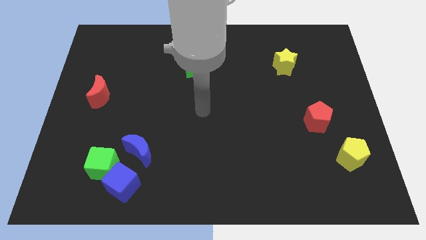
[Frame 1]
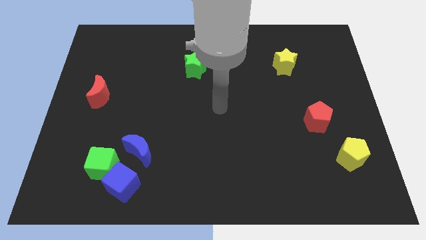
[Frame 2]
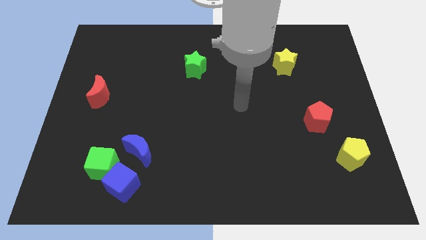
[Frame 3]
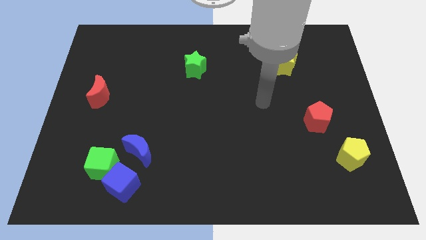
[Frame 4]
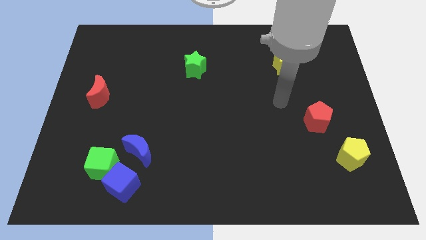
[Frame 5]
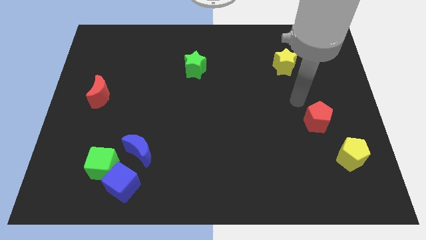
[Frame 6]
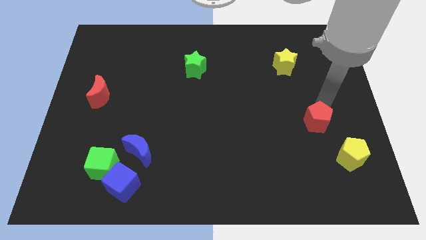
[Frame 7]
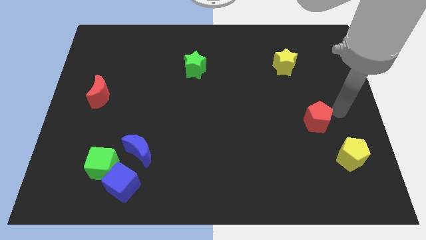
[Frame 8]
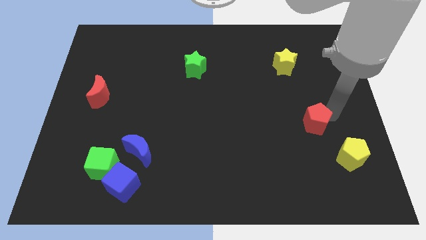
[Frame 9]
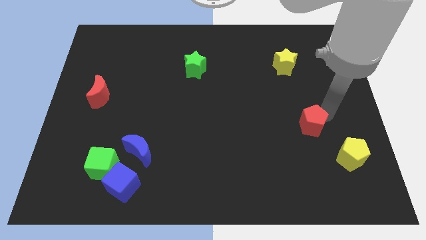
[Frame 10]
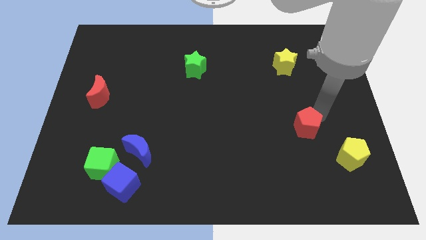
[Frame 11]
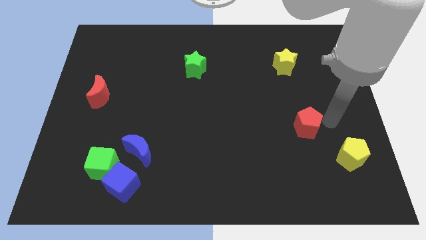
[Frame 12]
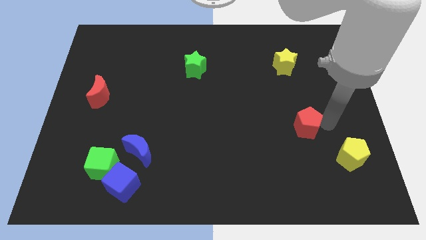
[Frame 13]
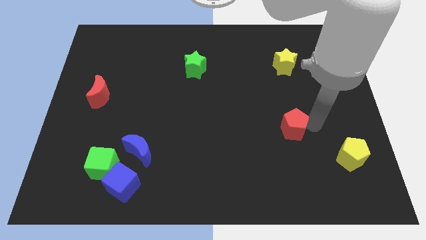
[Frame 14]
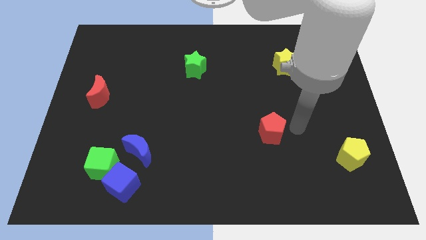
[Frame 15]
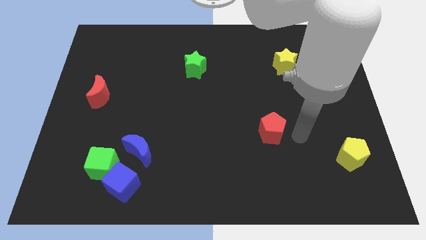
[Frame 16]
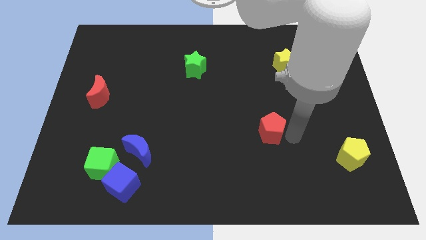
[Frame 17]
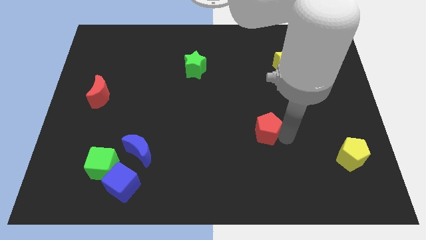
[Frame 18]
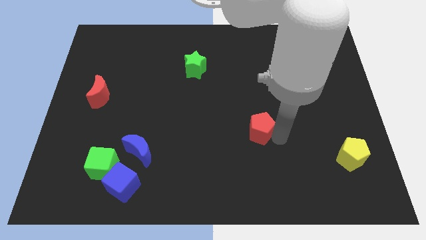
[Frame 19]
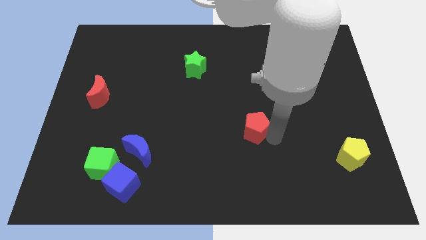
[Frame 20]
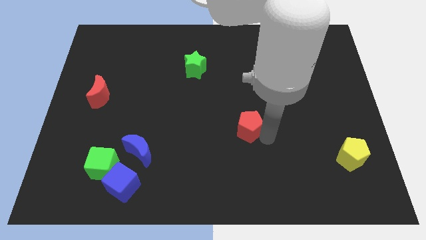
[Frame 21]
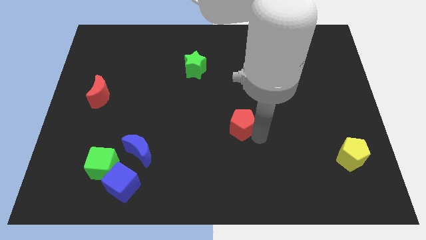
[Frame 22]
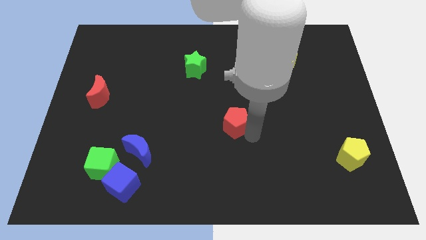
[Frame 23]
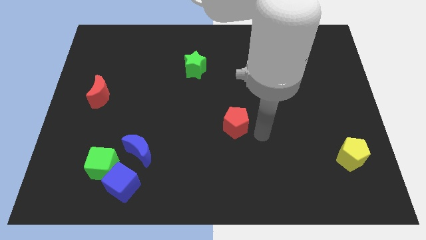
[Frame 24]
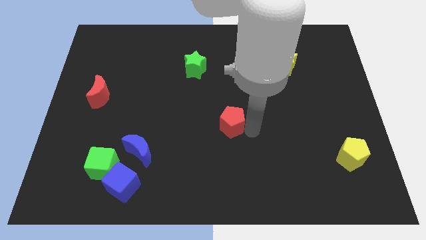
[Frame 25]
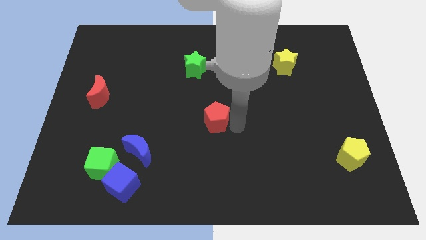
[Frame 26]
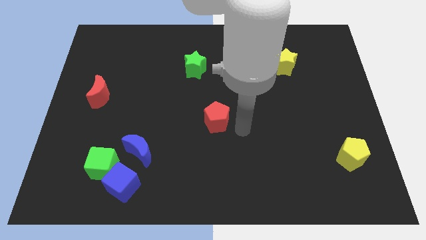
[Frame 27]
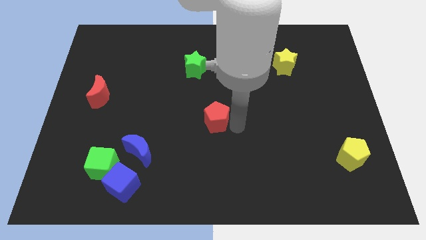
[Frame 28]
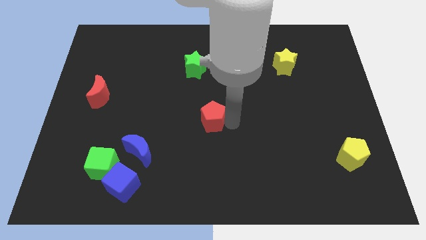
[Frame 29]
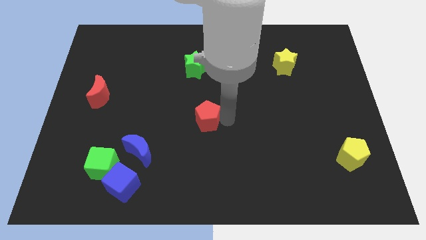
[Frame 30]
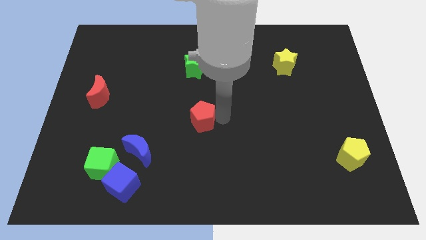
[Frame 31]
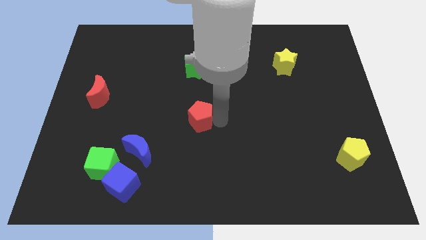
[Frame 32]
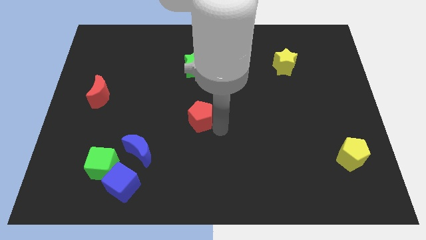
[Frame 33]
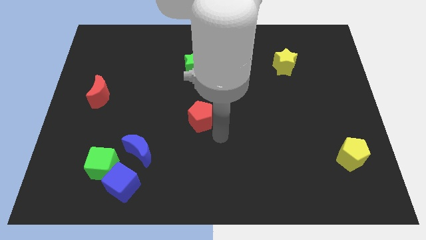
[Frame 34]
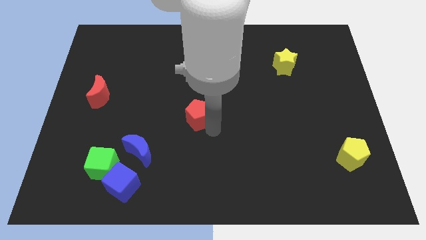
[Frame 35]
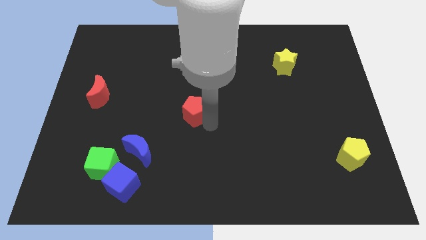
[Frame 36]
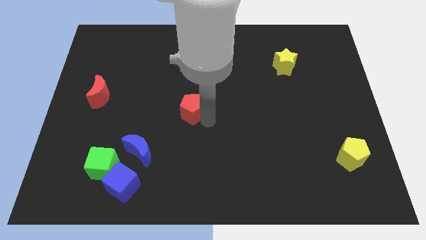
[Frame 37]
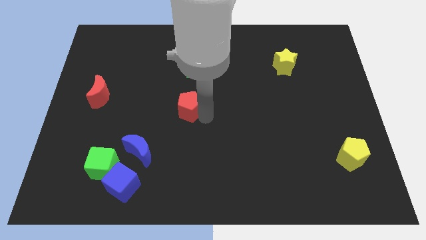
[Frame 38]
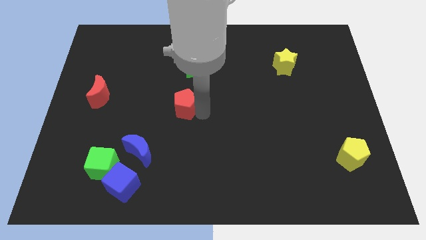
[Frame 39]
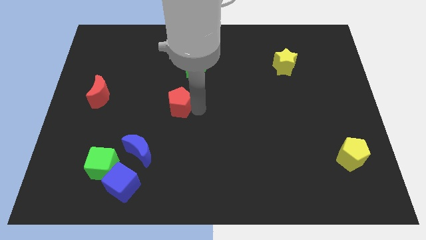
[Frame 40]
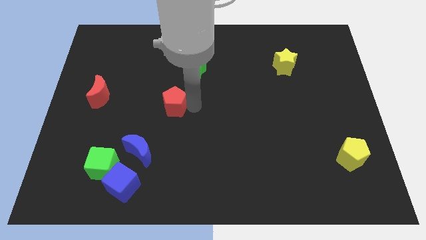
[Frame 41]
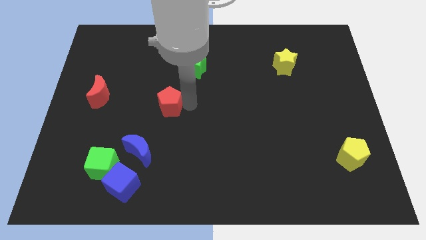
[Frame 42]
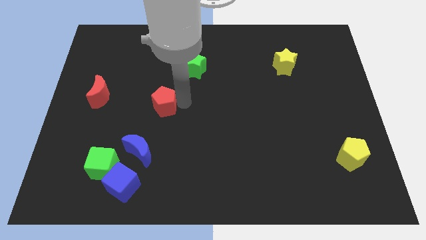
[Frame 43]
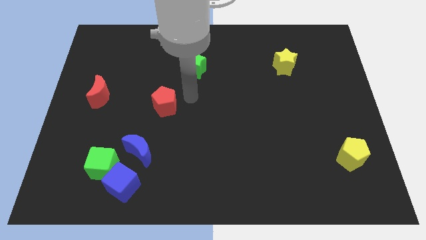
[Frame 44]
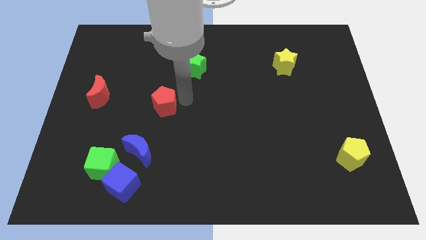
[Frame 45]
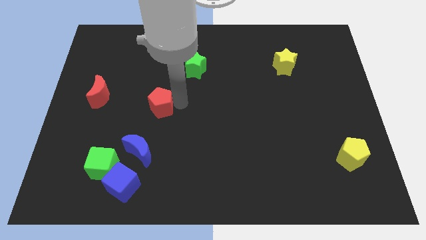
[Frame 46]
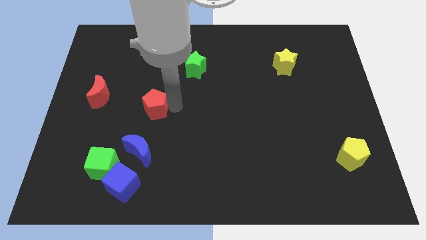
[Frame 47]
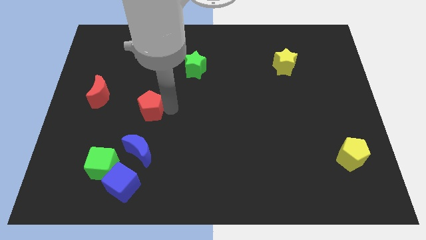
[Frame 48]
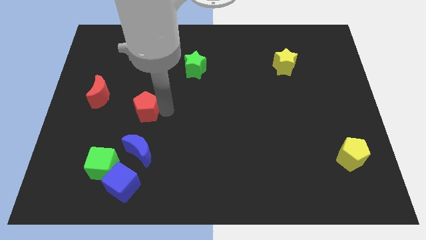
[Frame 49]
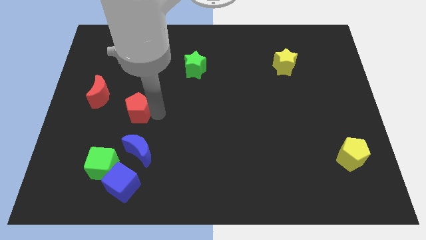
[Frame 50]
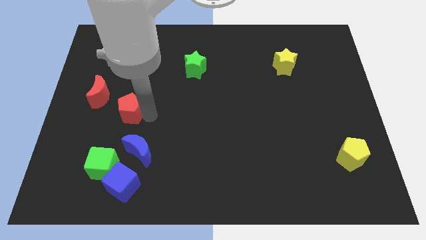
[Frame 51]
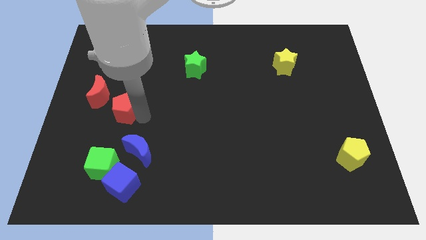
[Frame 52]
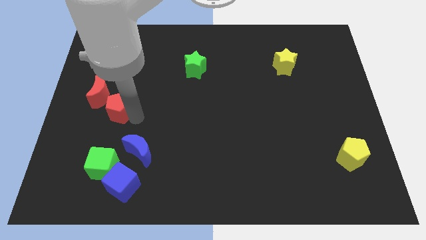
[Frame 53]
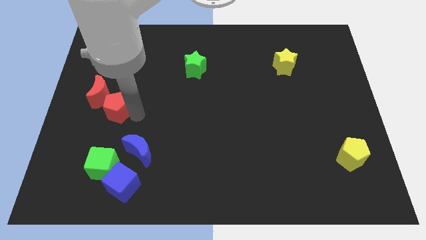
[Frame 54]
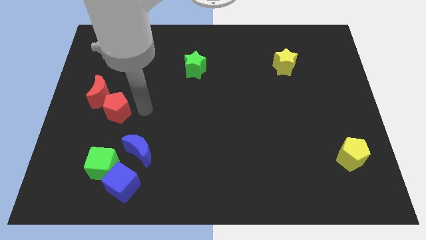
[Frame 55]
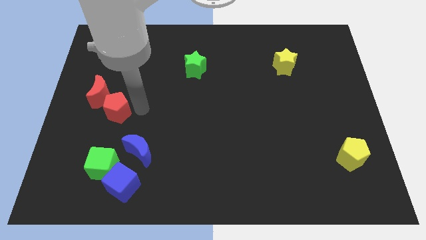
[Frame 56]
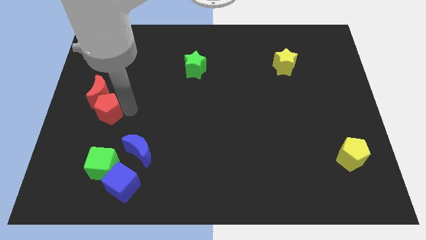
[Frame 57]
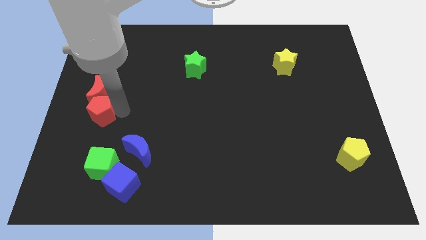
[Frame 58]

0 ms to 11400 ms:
push the red pentagon to the center left

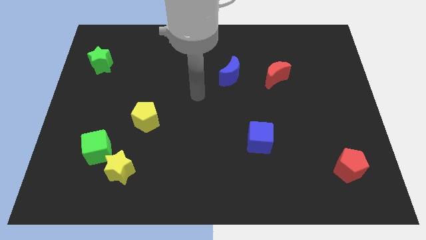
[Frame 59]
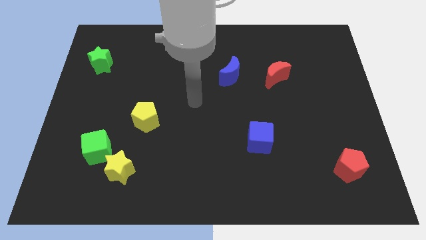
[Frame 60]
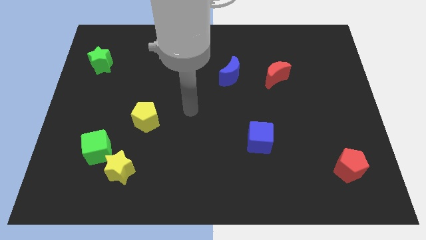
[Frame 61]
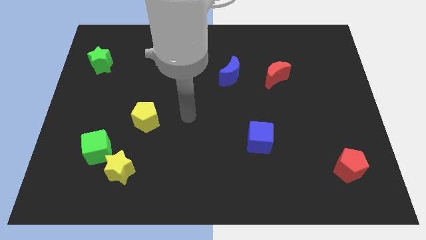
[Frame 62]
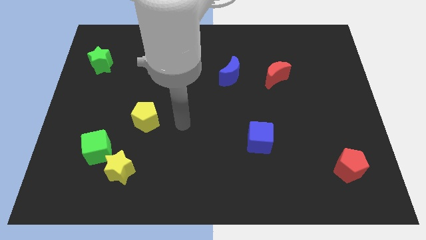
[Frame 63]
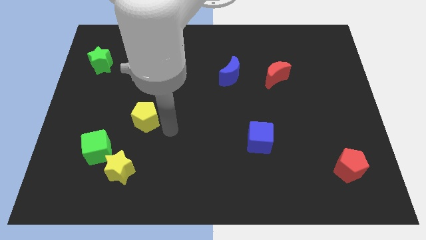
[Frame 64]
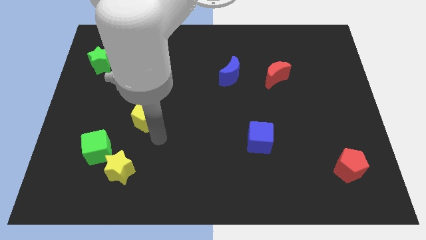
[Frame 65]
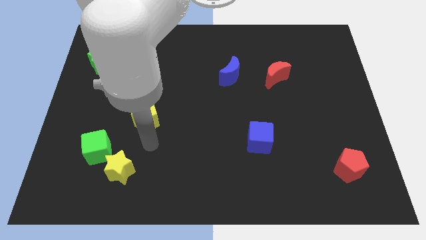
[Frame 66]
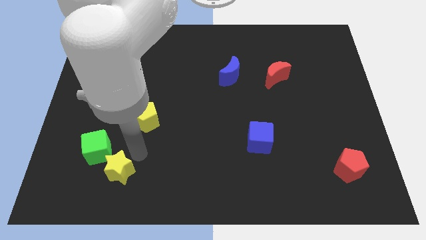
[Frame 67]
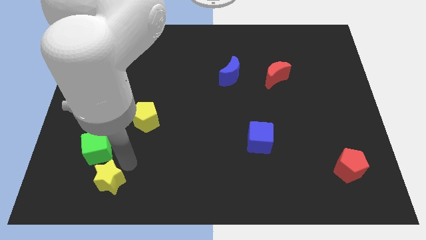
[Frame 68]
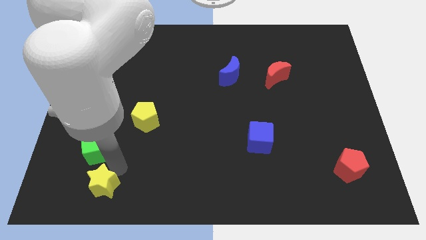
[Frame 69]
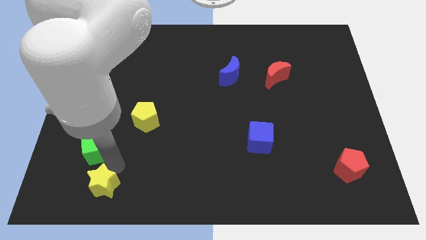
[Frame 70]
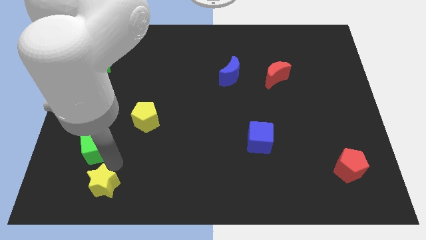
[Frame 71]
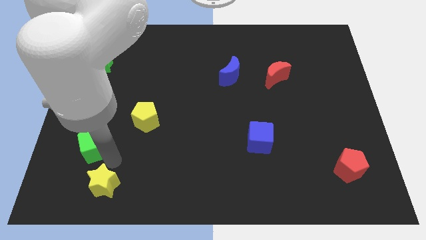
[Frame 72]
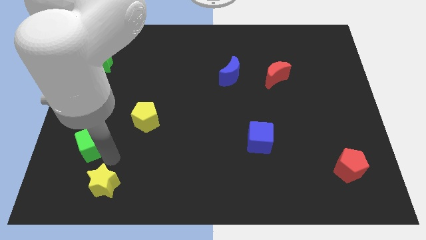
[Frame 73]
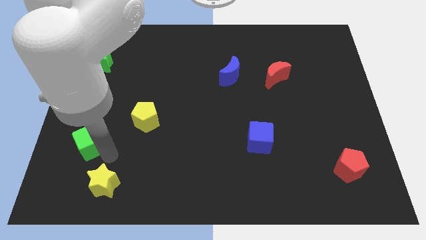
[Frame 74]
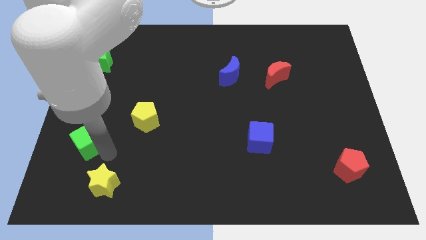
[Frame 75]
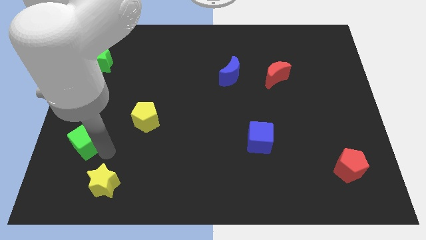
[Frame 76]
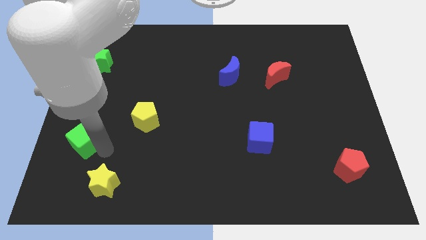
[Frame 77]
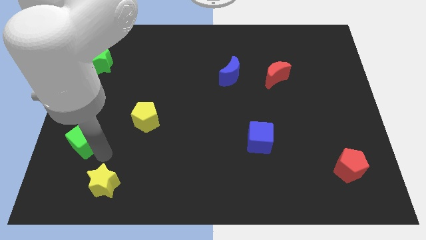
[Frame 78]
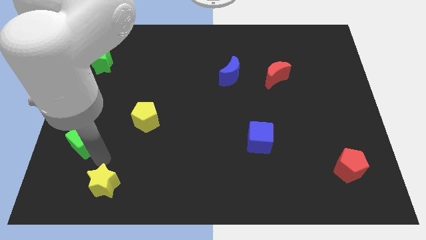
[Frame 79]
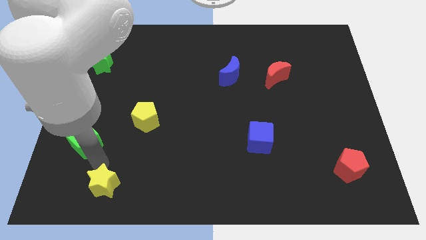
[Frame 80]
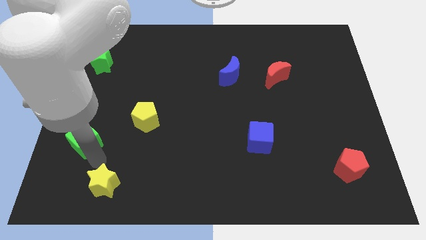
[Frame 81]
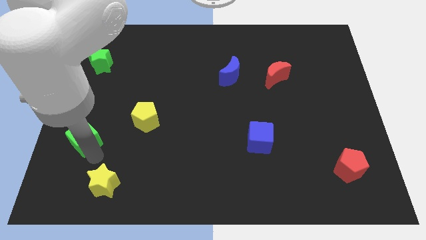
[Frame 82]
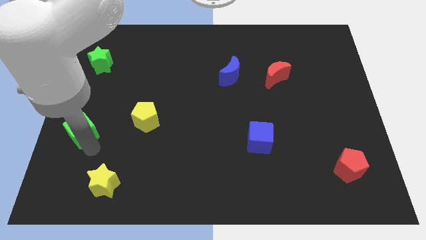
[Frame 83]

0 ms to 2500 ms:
push the green cube to the center left
